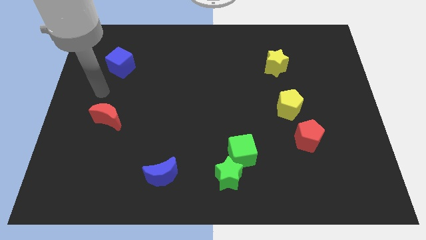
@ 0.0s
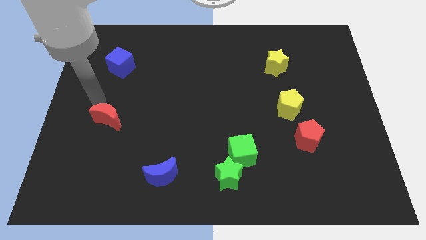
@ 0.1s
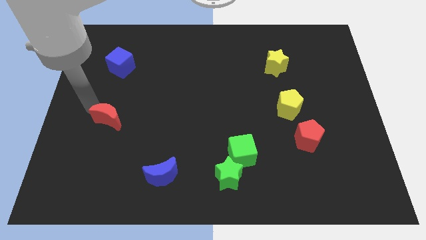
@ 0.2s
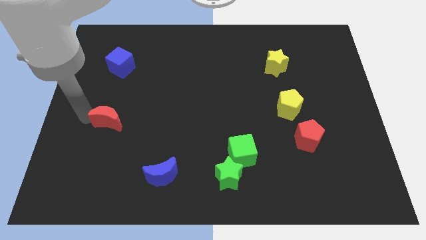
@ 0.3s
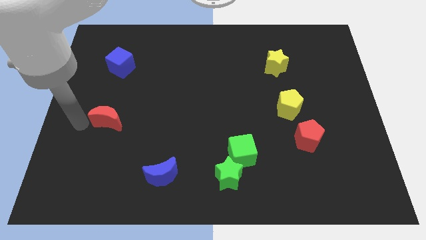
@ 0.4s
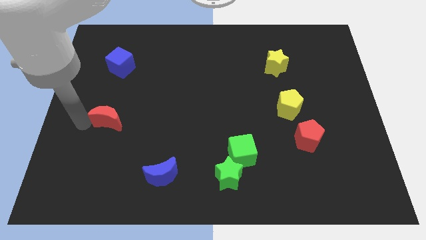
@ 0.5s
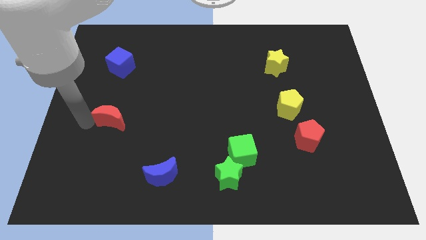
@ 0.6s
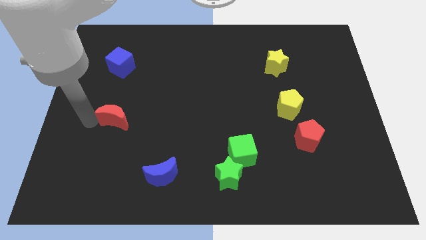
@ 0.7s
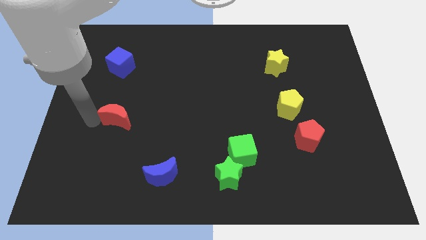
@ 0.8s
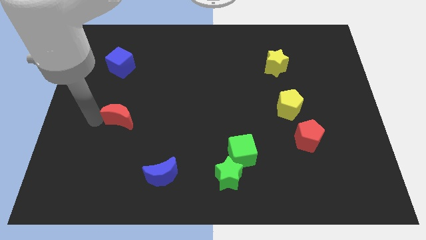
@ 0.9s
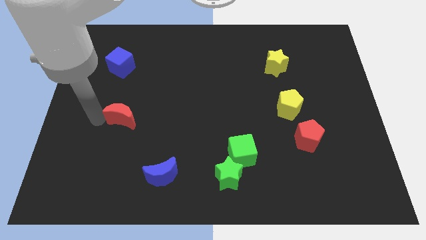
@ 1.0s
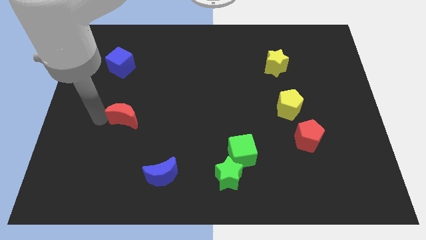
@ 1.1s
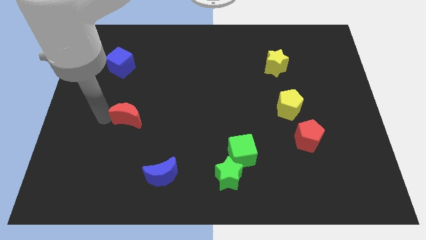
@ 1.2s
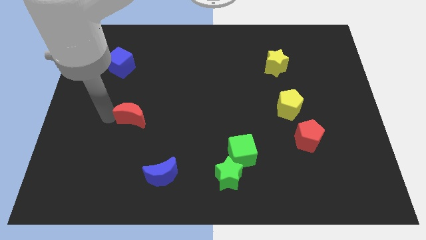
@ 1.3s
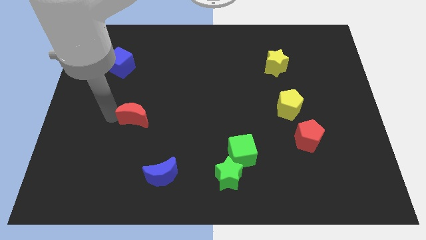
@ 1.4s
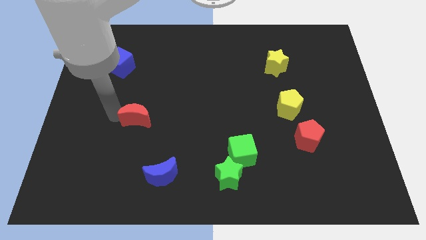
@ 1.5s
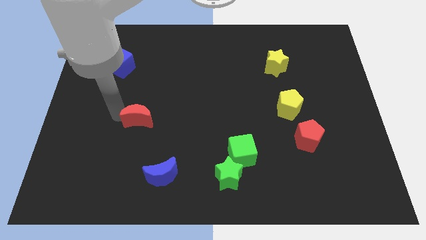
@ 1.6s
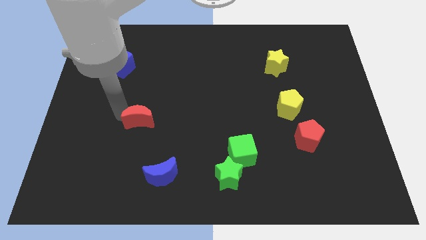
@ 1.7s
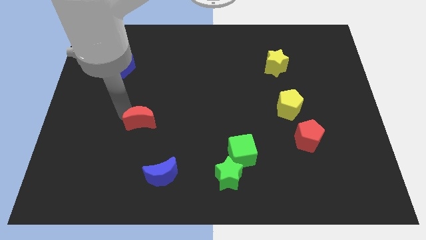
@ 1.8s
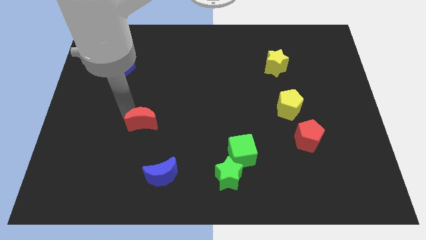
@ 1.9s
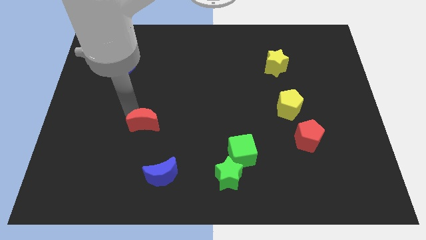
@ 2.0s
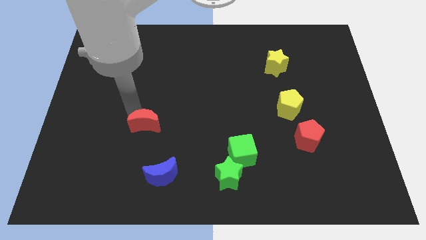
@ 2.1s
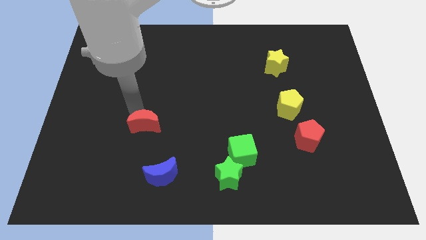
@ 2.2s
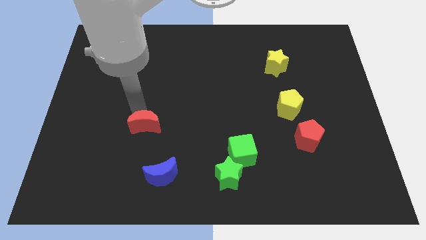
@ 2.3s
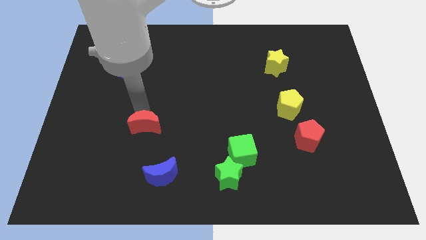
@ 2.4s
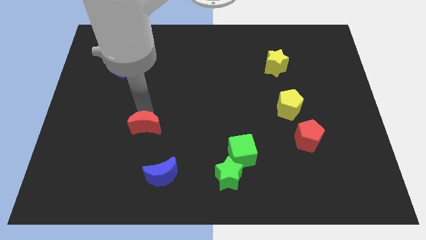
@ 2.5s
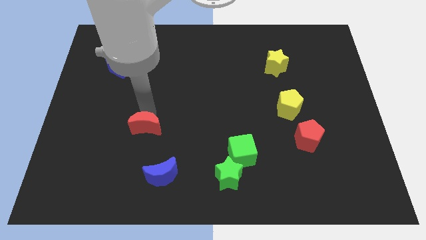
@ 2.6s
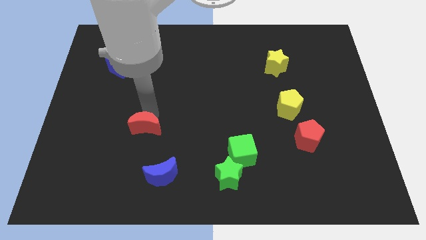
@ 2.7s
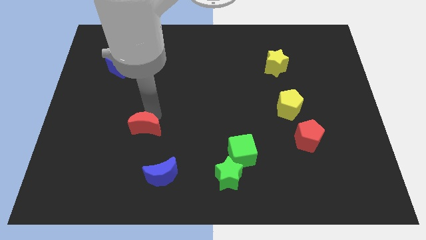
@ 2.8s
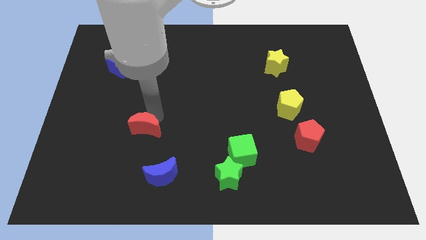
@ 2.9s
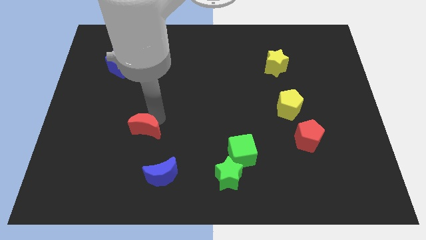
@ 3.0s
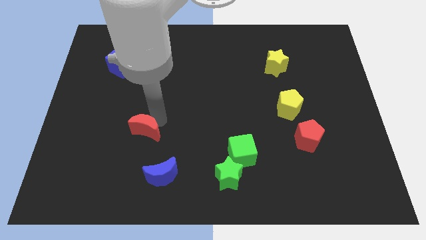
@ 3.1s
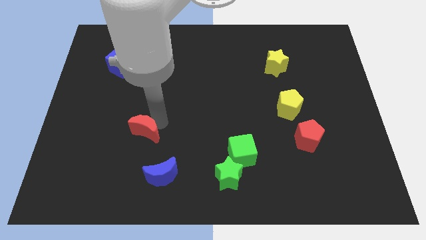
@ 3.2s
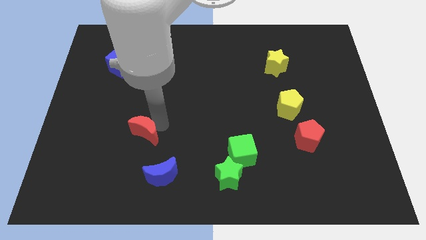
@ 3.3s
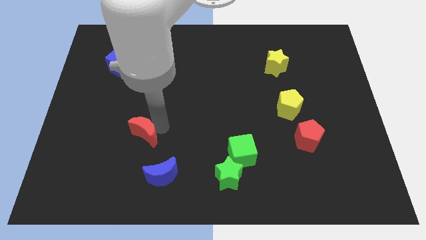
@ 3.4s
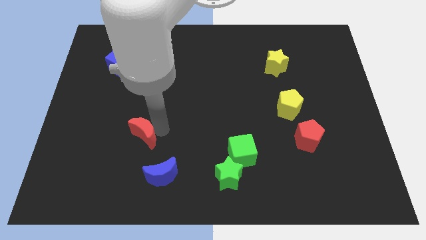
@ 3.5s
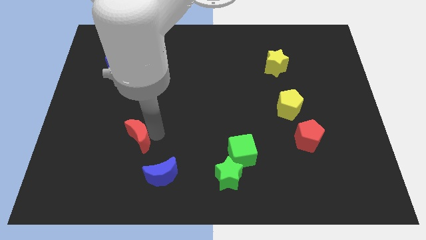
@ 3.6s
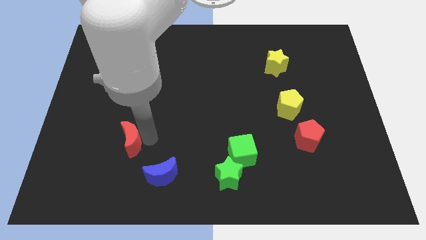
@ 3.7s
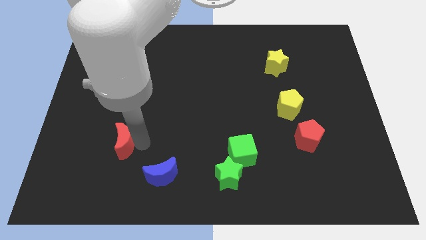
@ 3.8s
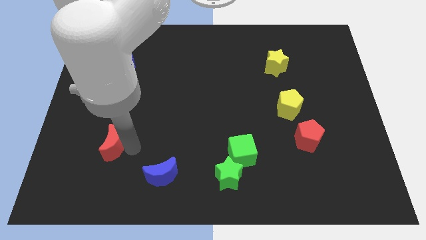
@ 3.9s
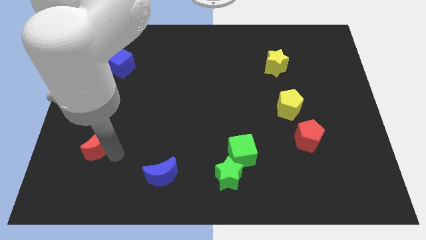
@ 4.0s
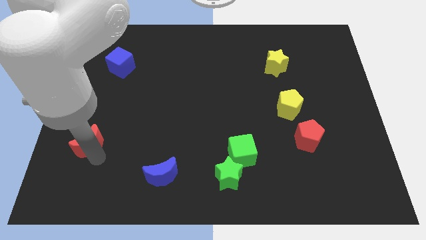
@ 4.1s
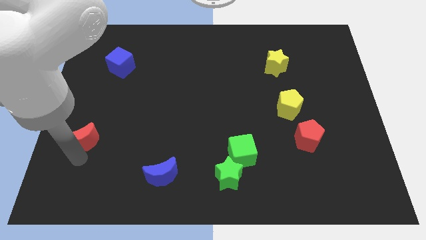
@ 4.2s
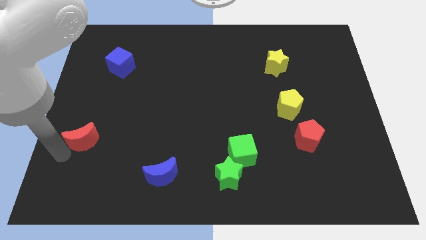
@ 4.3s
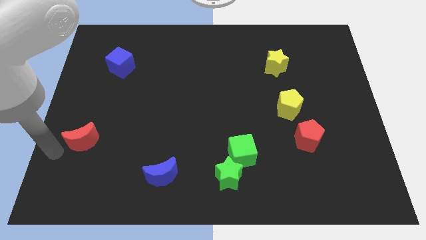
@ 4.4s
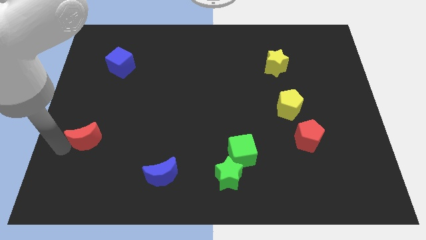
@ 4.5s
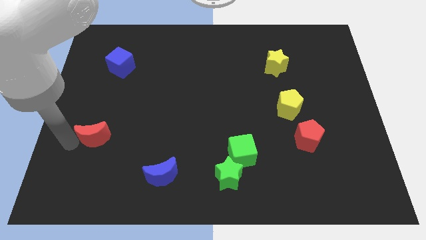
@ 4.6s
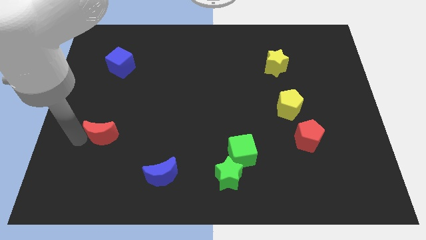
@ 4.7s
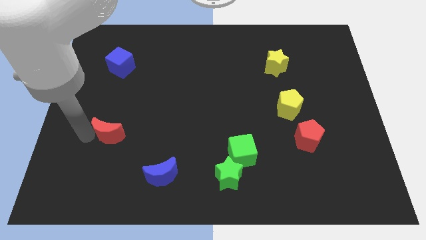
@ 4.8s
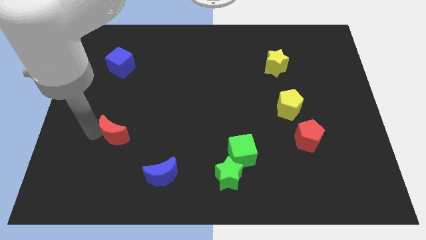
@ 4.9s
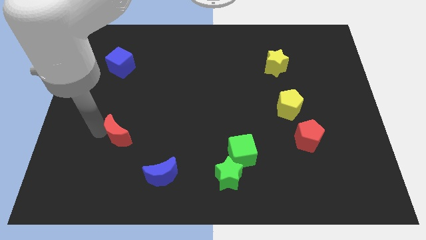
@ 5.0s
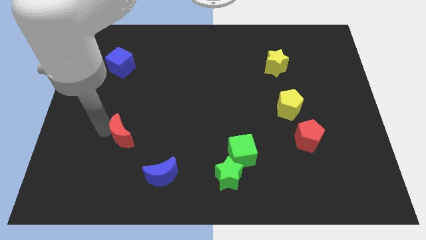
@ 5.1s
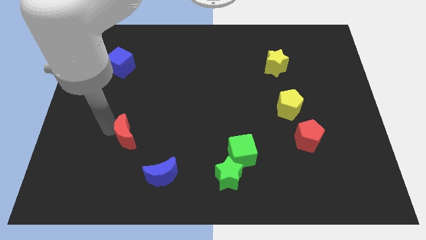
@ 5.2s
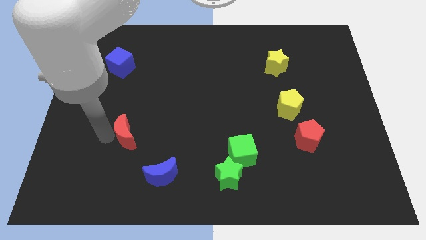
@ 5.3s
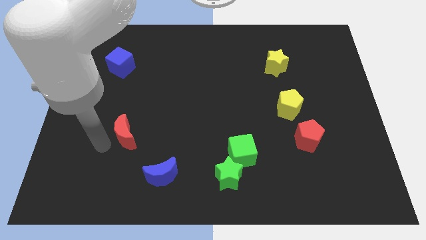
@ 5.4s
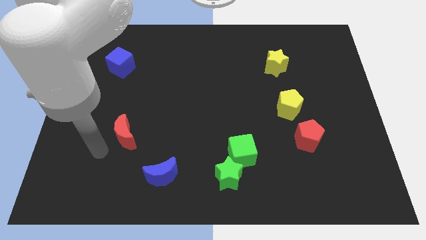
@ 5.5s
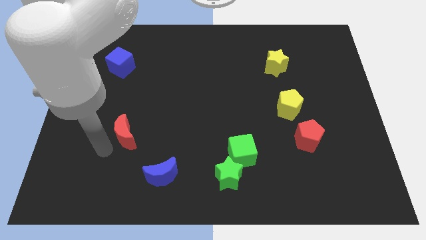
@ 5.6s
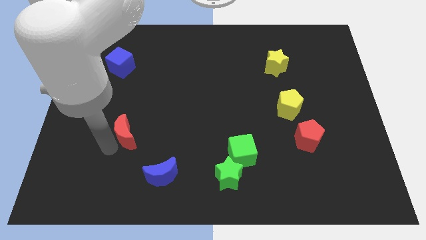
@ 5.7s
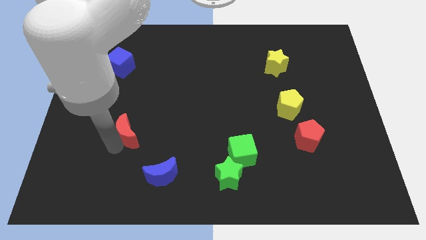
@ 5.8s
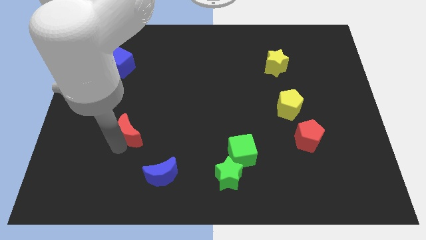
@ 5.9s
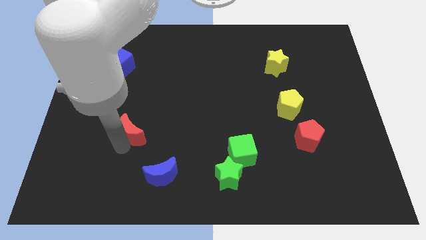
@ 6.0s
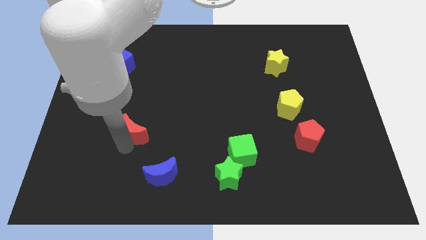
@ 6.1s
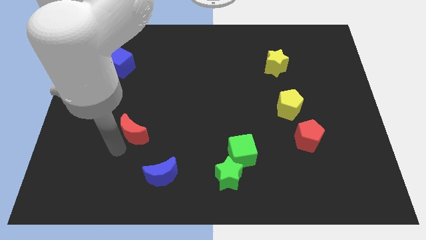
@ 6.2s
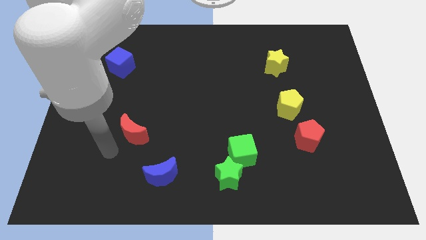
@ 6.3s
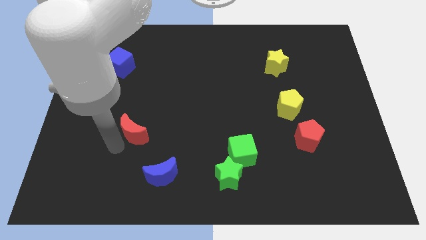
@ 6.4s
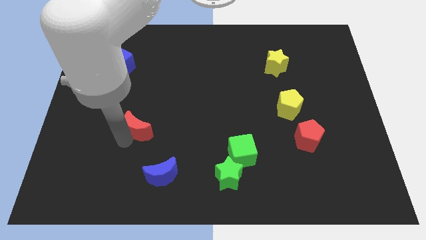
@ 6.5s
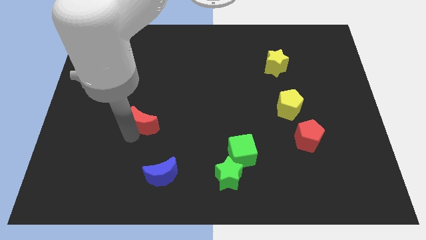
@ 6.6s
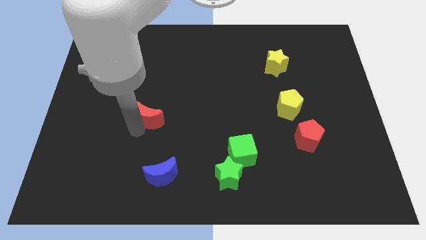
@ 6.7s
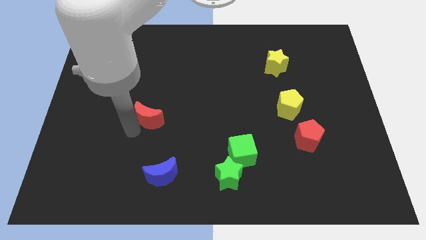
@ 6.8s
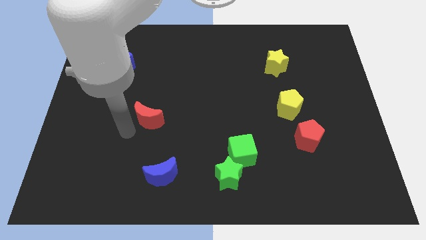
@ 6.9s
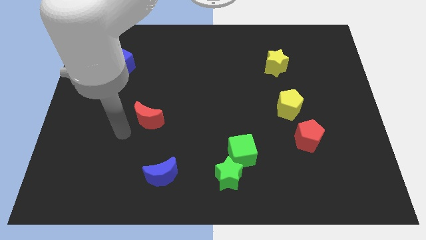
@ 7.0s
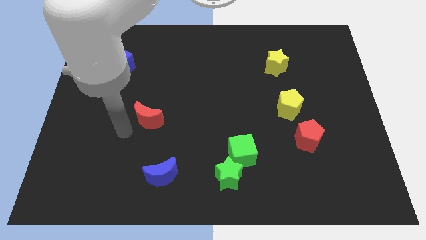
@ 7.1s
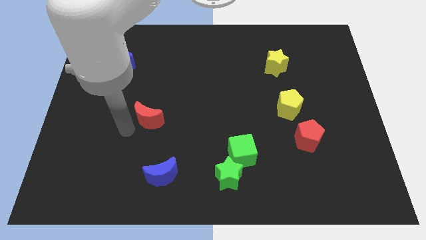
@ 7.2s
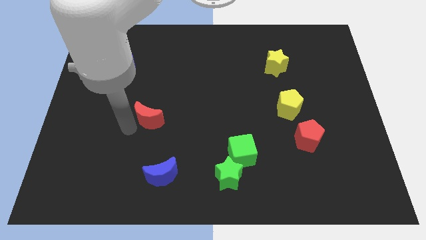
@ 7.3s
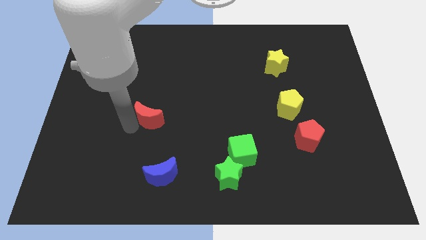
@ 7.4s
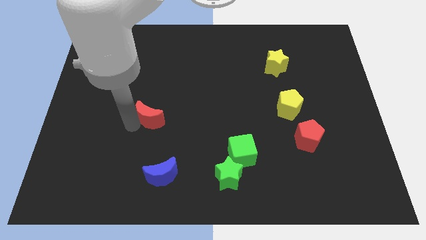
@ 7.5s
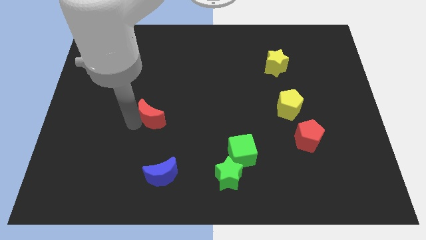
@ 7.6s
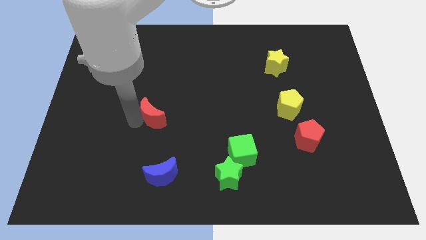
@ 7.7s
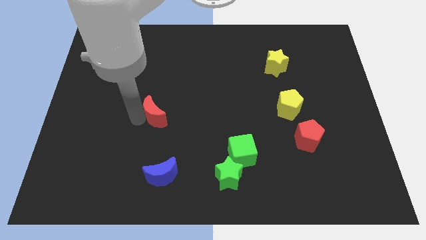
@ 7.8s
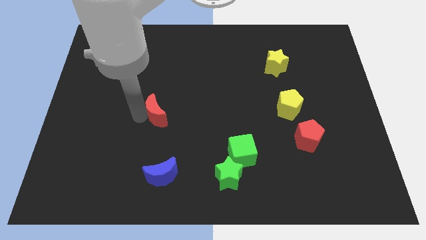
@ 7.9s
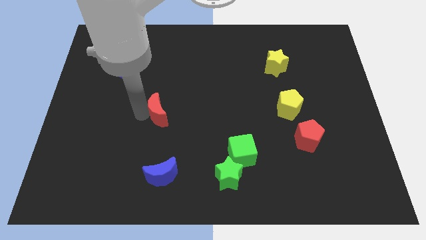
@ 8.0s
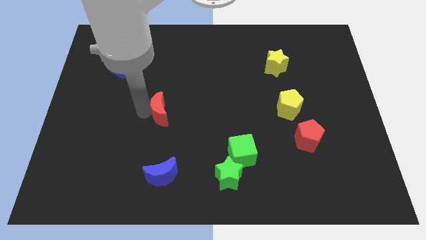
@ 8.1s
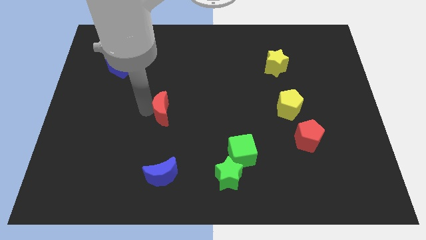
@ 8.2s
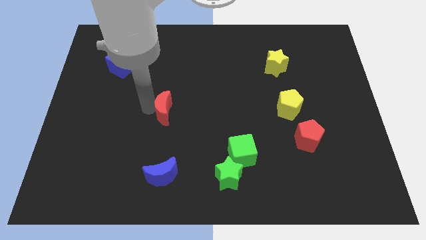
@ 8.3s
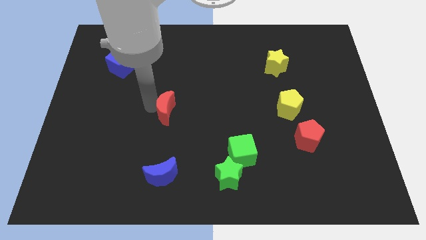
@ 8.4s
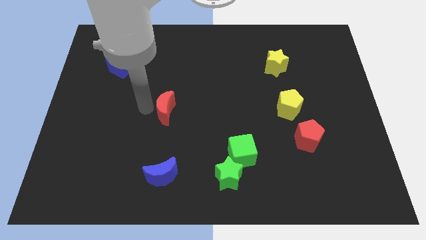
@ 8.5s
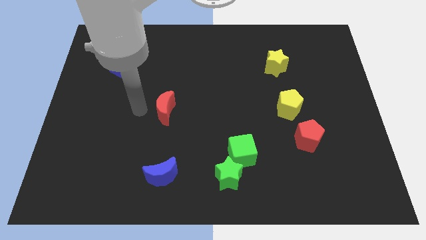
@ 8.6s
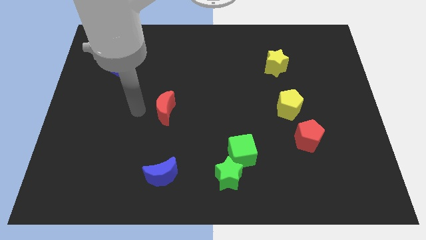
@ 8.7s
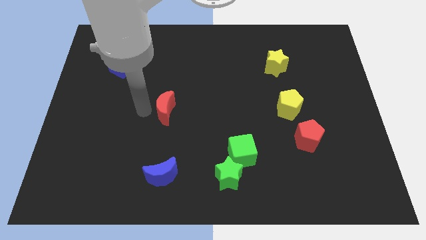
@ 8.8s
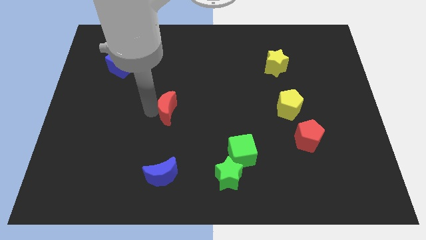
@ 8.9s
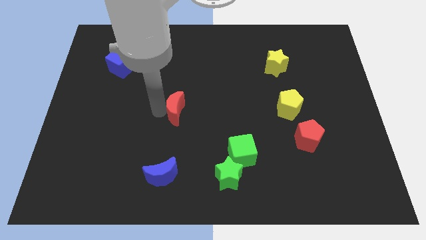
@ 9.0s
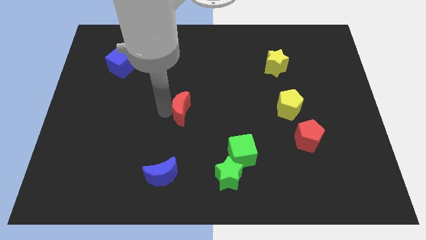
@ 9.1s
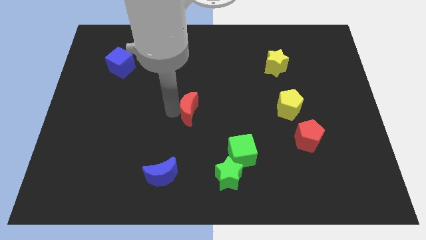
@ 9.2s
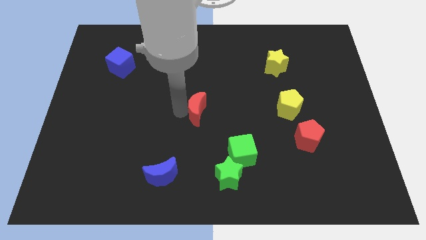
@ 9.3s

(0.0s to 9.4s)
move the red moon right
